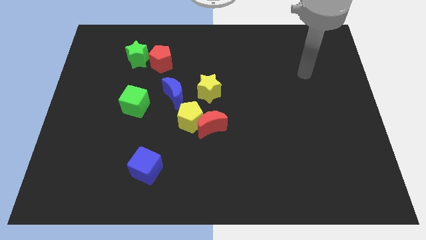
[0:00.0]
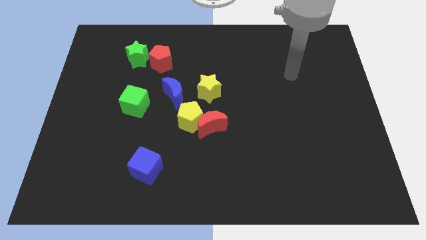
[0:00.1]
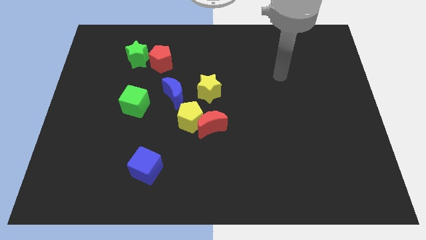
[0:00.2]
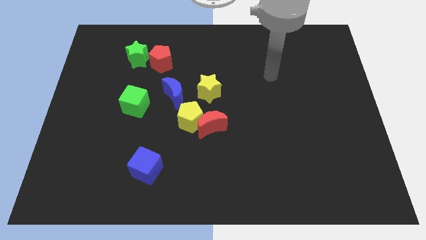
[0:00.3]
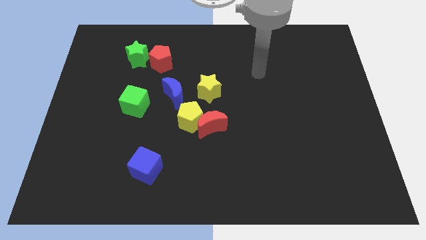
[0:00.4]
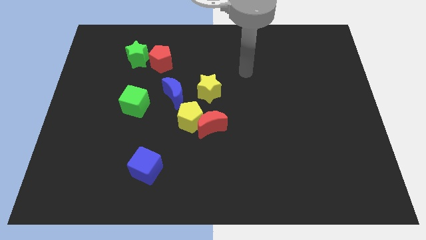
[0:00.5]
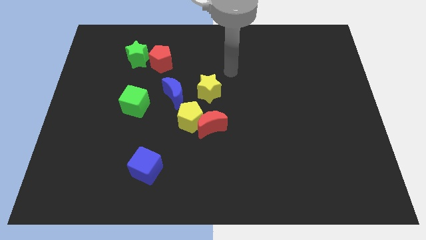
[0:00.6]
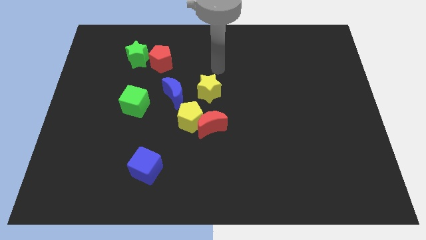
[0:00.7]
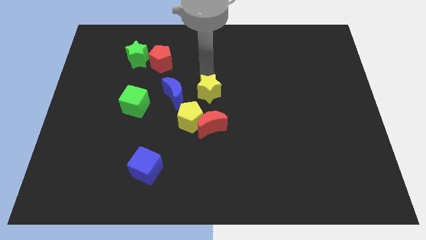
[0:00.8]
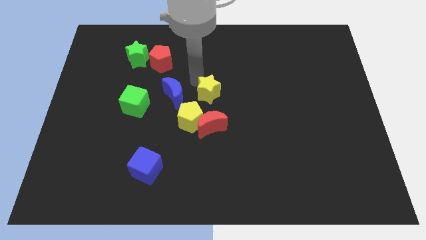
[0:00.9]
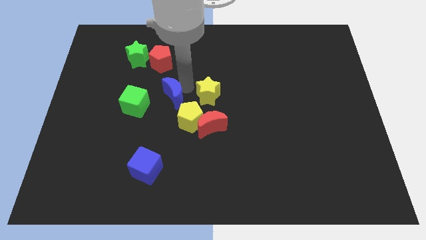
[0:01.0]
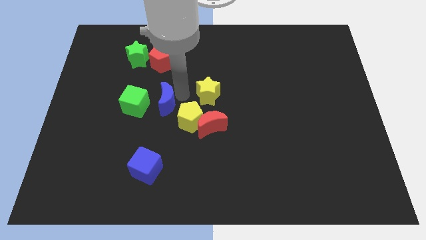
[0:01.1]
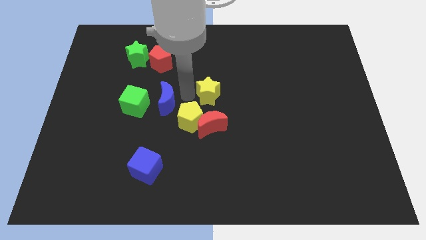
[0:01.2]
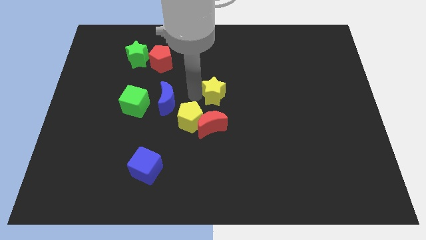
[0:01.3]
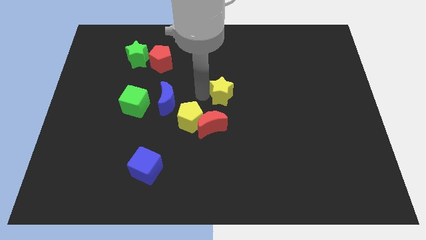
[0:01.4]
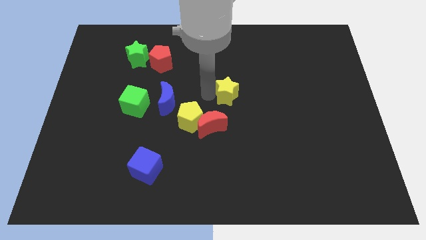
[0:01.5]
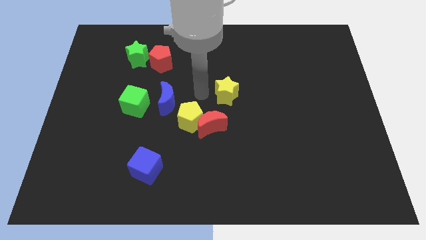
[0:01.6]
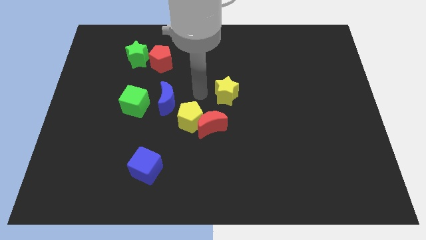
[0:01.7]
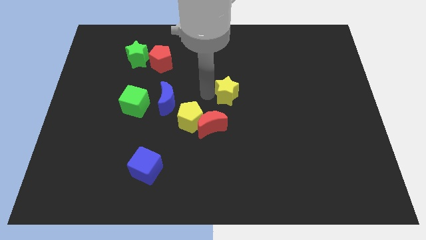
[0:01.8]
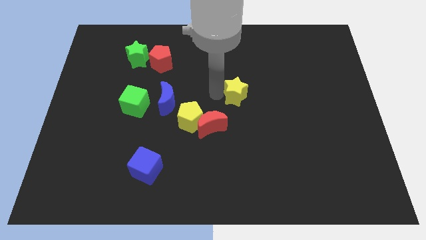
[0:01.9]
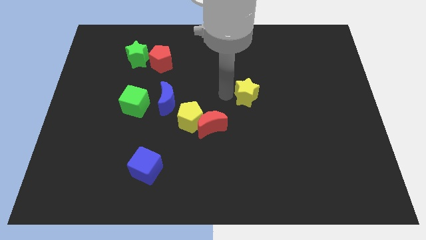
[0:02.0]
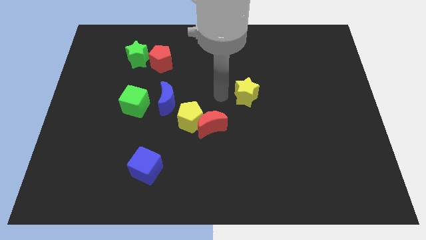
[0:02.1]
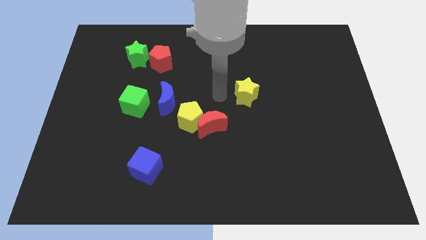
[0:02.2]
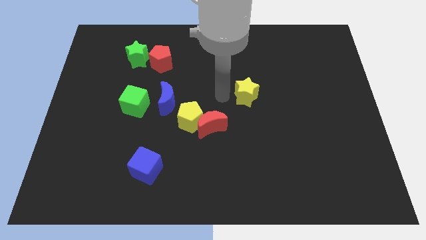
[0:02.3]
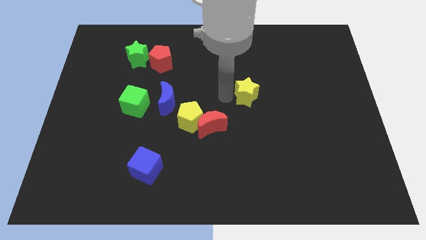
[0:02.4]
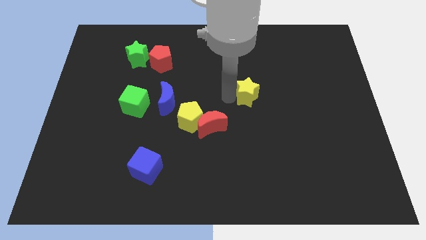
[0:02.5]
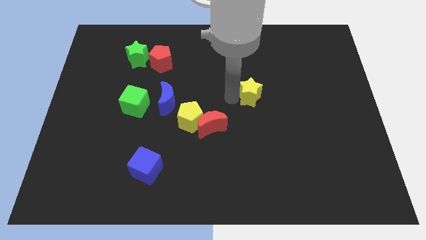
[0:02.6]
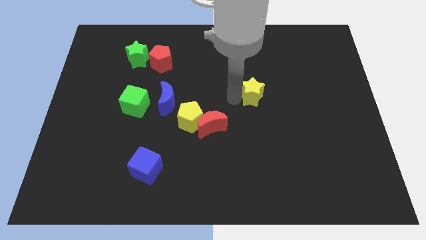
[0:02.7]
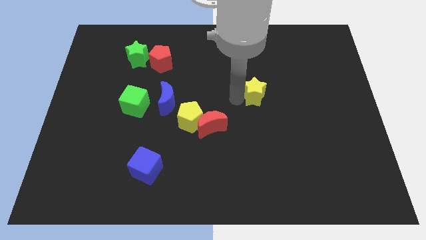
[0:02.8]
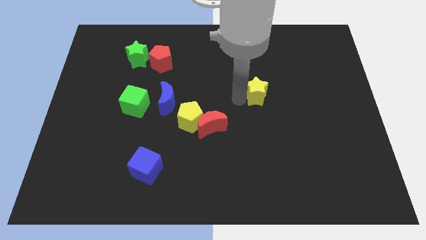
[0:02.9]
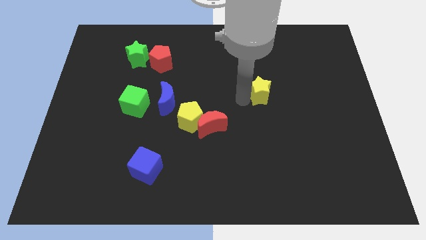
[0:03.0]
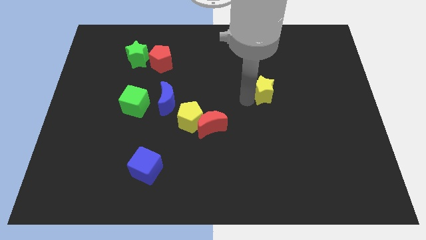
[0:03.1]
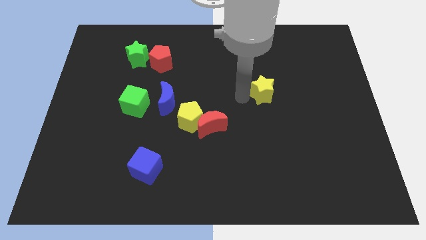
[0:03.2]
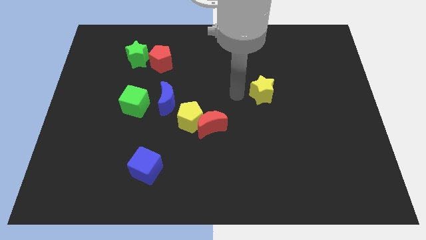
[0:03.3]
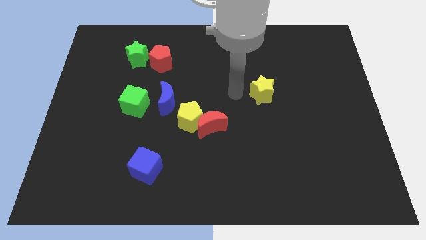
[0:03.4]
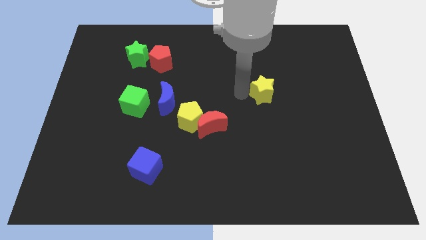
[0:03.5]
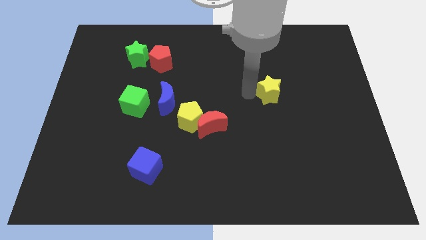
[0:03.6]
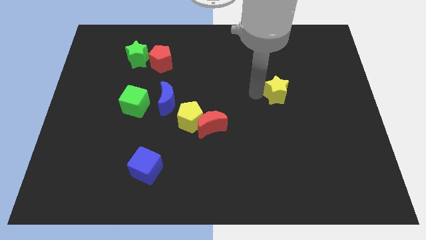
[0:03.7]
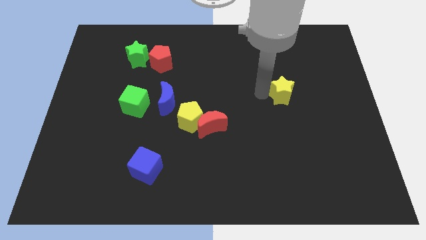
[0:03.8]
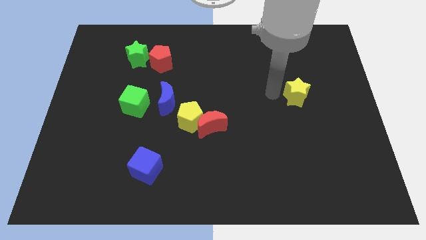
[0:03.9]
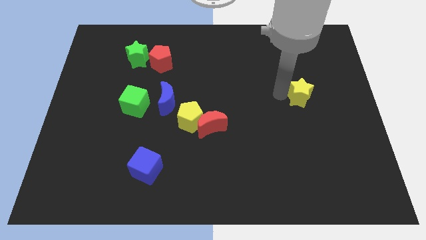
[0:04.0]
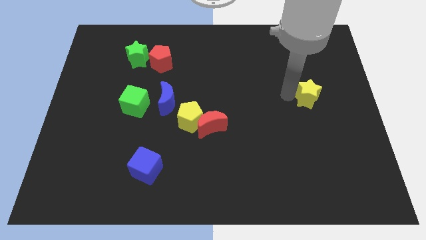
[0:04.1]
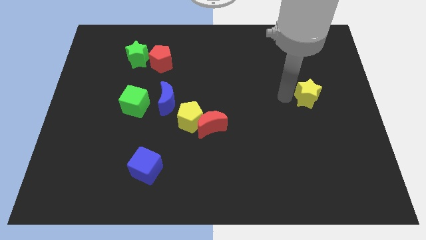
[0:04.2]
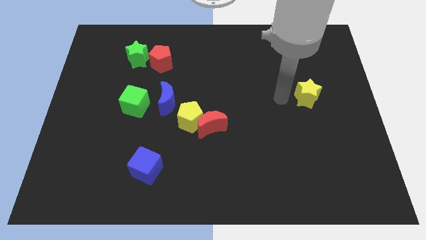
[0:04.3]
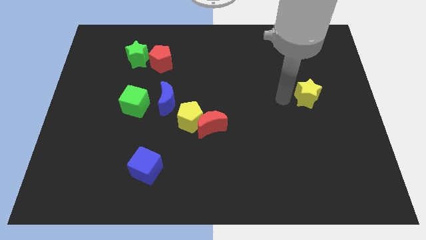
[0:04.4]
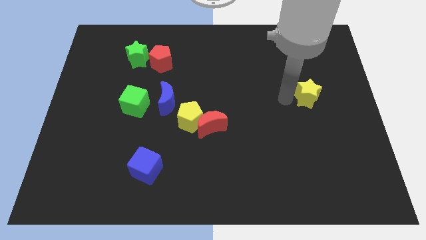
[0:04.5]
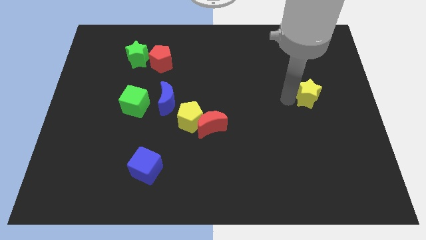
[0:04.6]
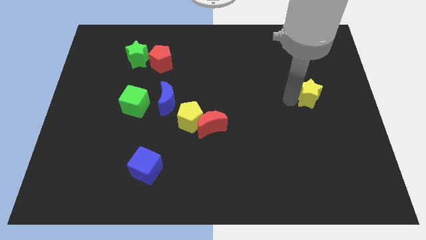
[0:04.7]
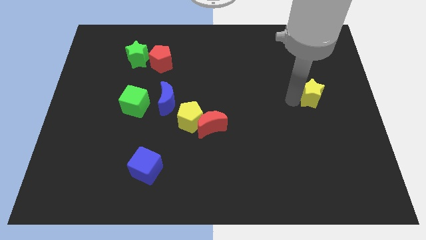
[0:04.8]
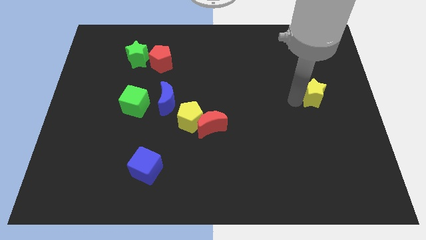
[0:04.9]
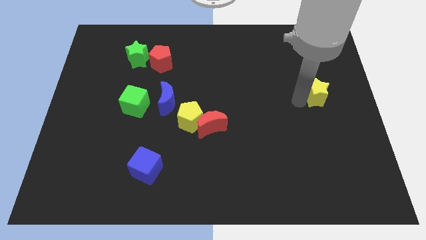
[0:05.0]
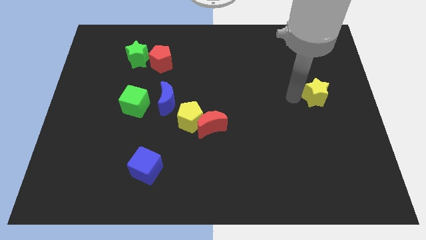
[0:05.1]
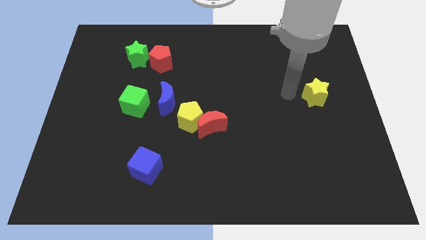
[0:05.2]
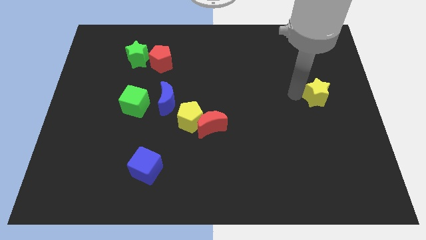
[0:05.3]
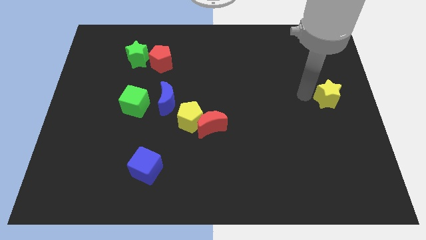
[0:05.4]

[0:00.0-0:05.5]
push the yellow star to the center right

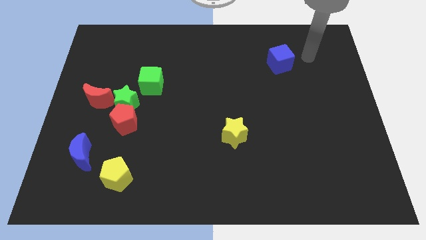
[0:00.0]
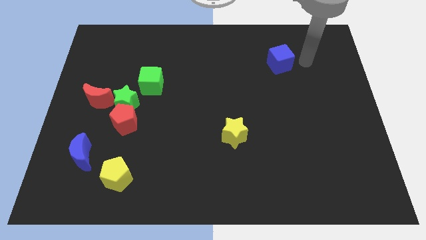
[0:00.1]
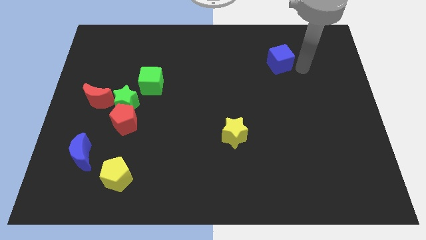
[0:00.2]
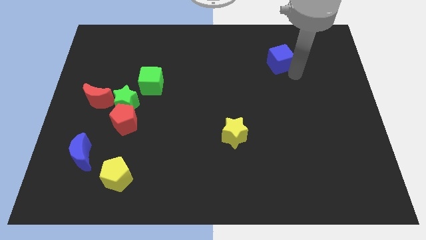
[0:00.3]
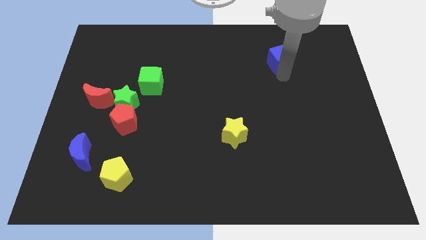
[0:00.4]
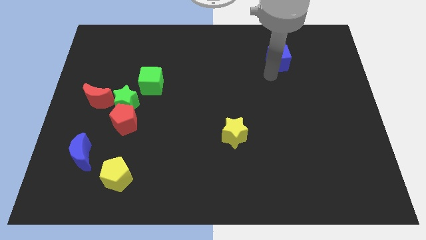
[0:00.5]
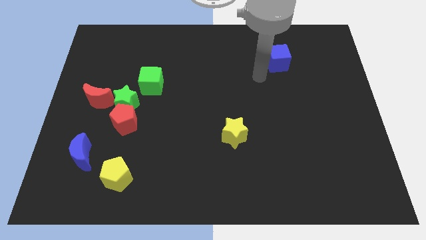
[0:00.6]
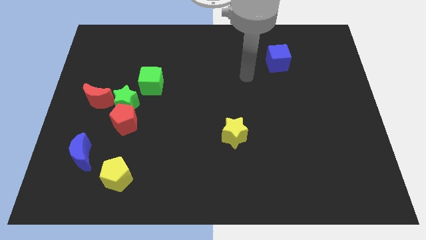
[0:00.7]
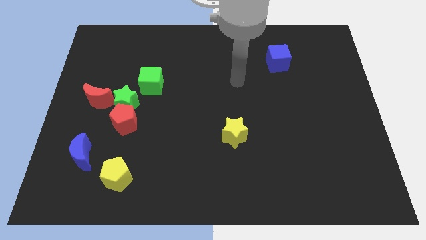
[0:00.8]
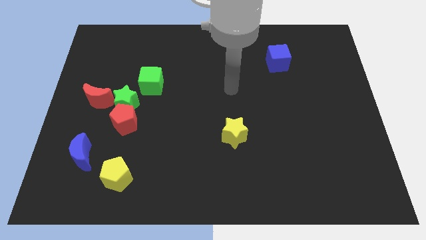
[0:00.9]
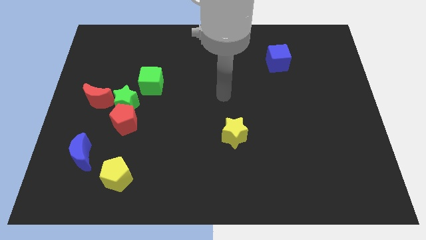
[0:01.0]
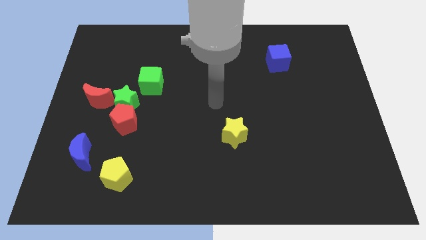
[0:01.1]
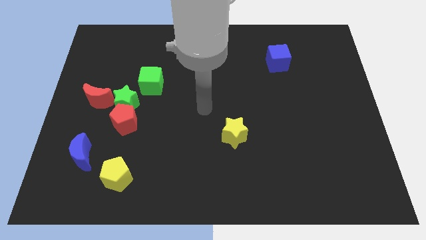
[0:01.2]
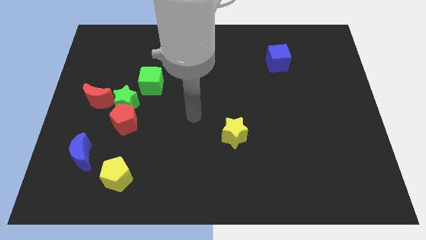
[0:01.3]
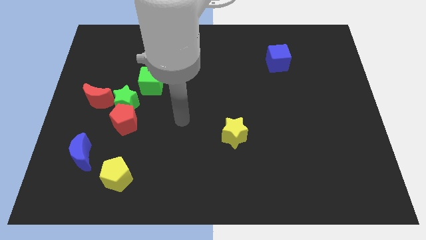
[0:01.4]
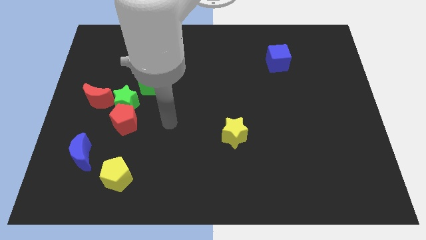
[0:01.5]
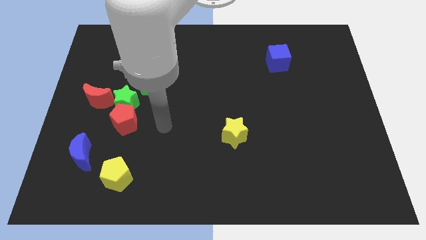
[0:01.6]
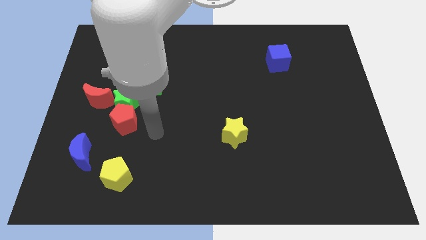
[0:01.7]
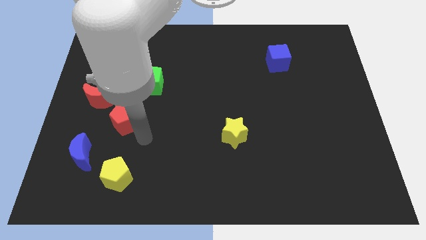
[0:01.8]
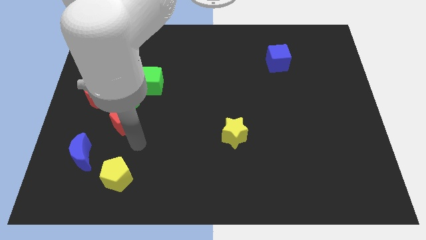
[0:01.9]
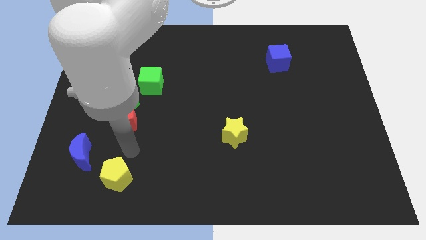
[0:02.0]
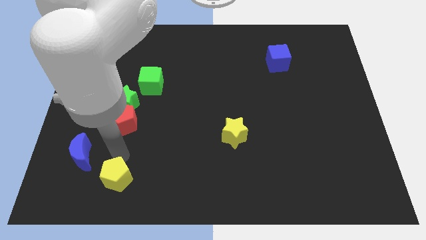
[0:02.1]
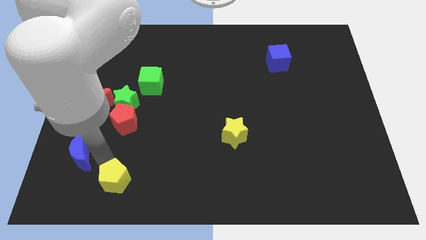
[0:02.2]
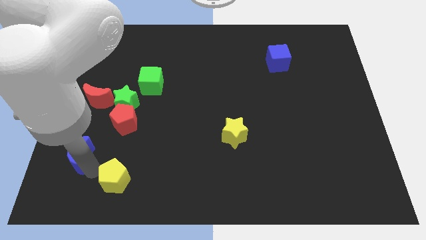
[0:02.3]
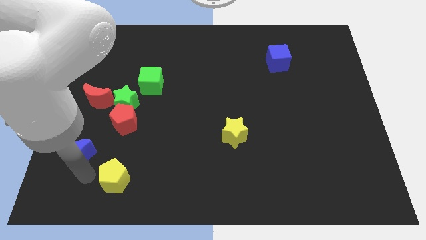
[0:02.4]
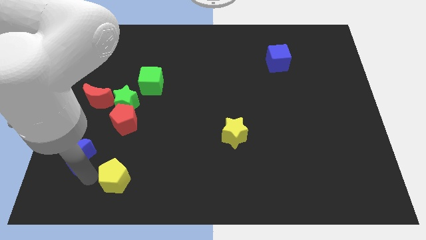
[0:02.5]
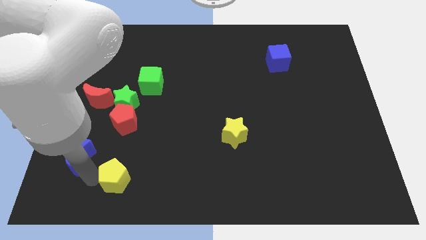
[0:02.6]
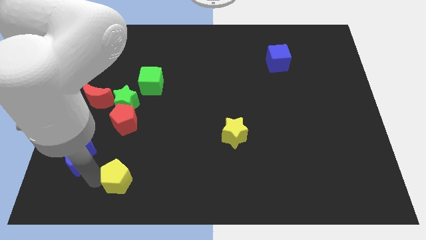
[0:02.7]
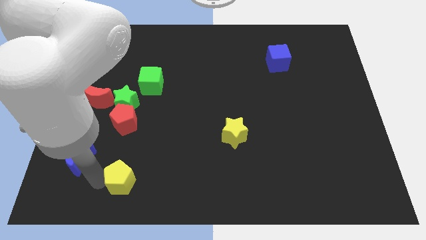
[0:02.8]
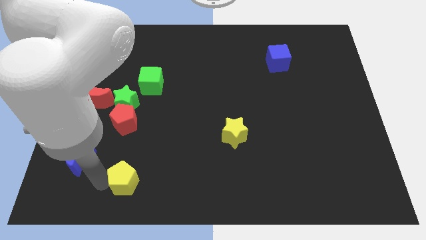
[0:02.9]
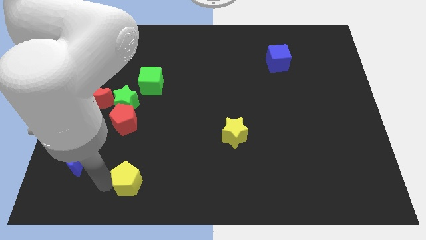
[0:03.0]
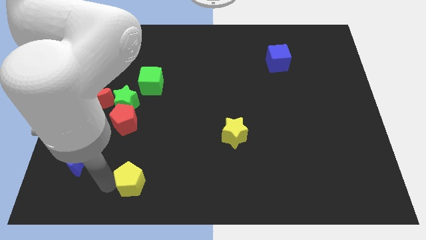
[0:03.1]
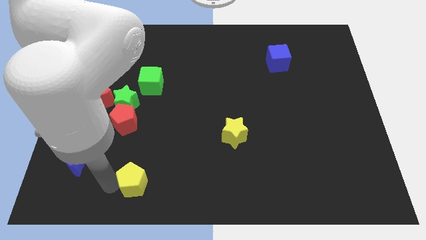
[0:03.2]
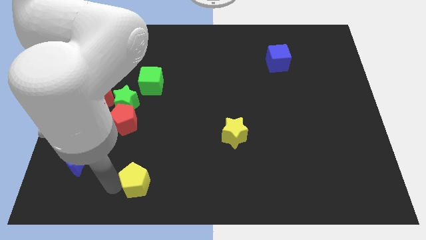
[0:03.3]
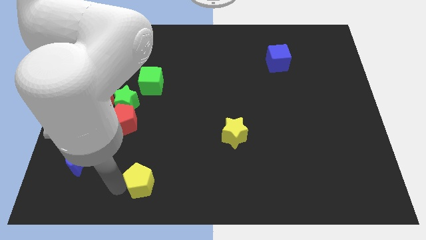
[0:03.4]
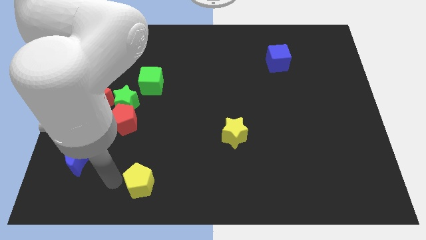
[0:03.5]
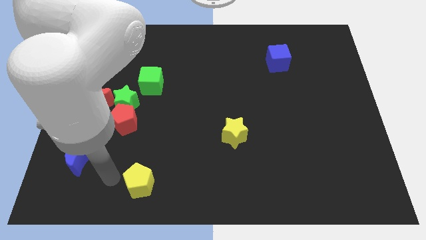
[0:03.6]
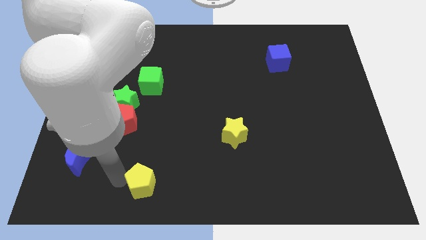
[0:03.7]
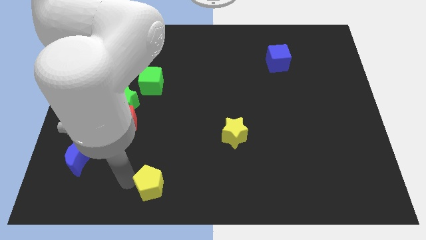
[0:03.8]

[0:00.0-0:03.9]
put the yellow pentagon to the bottom
